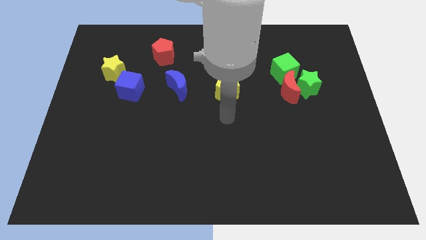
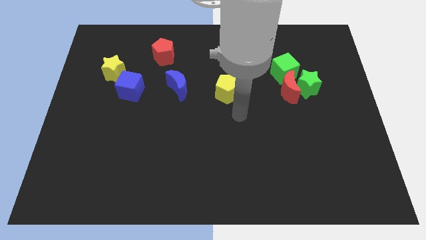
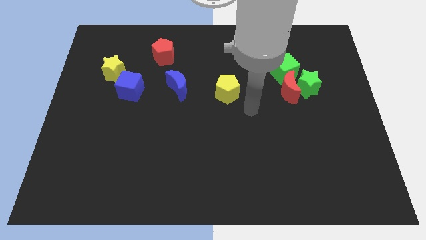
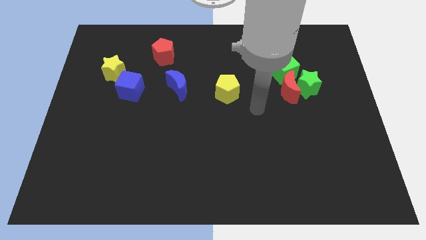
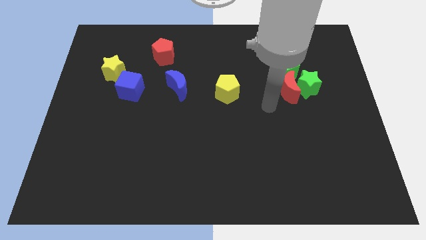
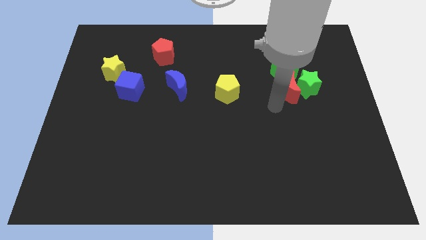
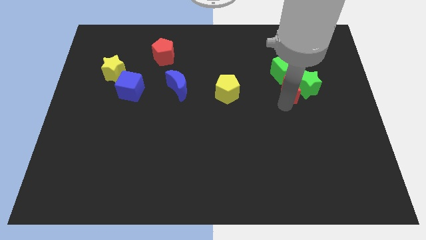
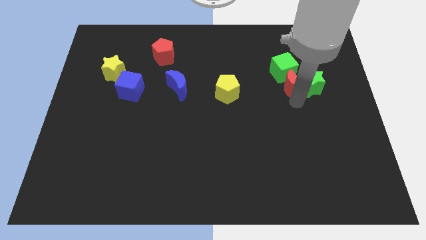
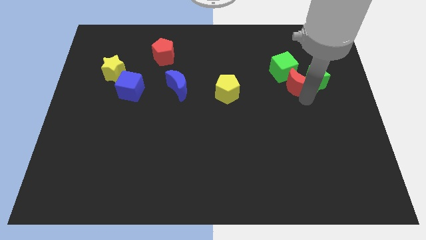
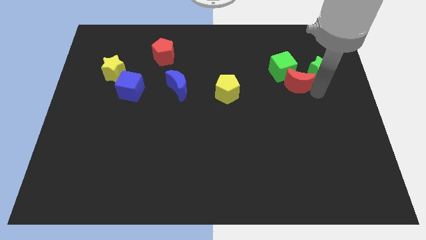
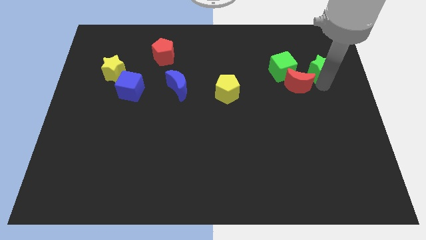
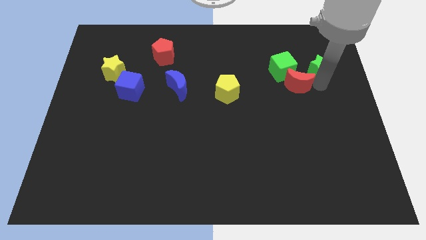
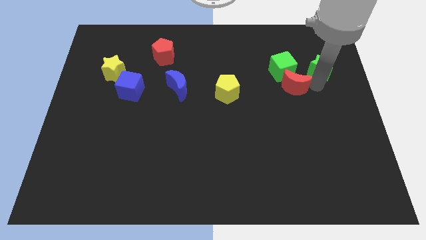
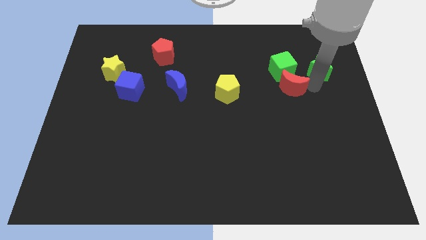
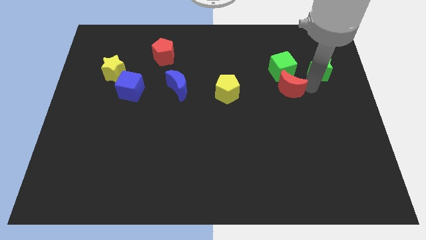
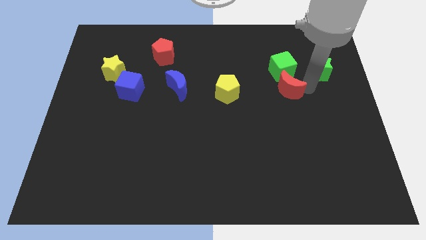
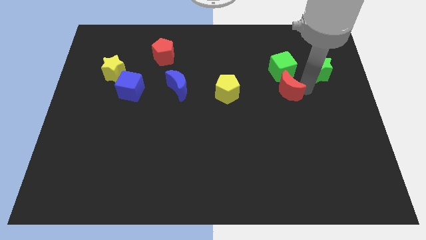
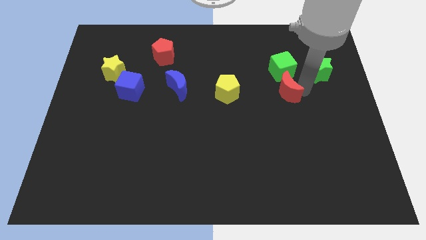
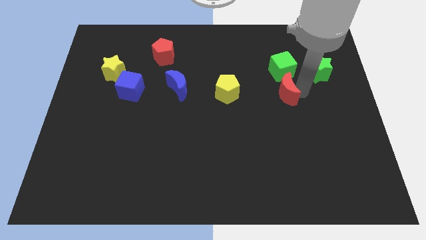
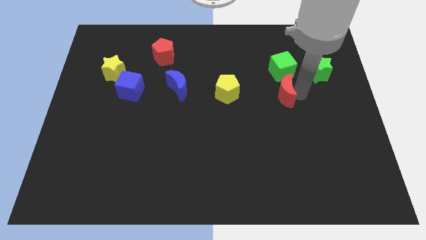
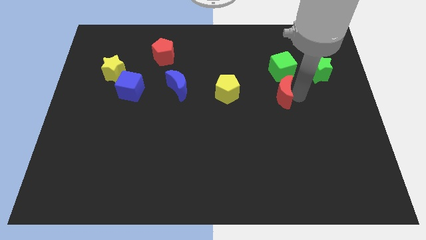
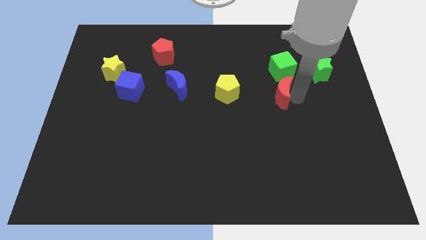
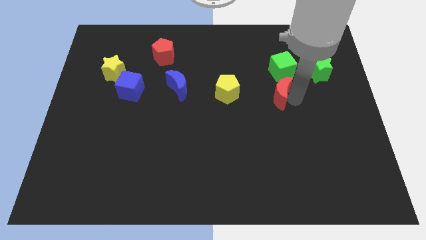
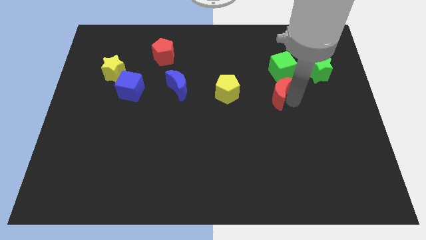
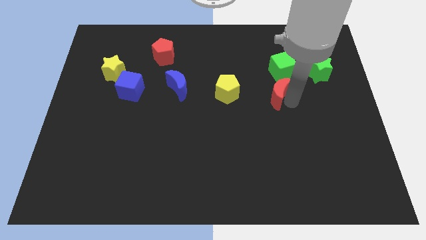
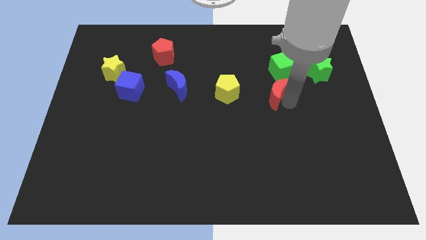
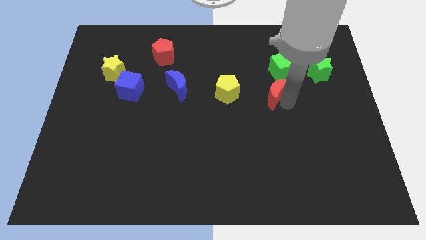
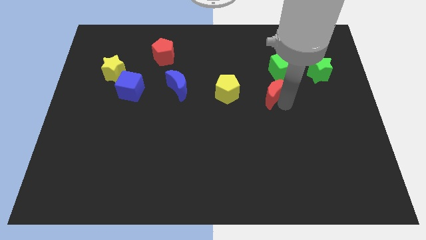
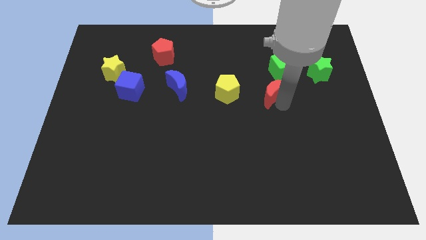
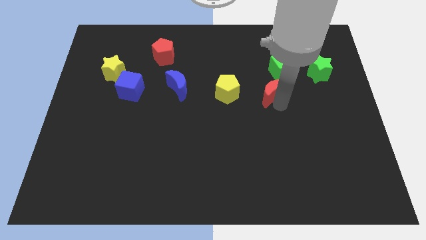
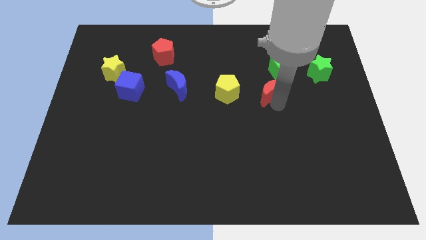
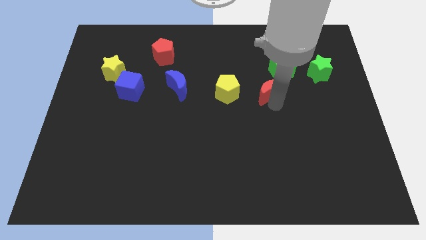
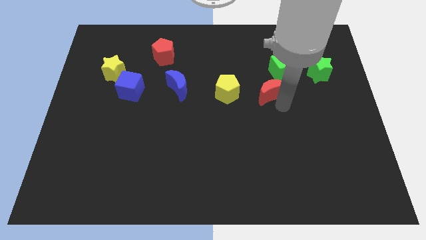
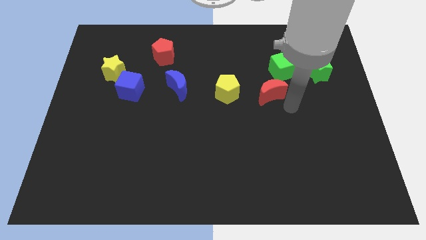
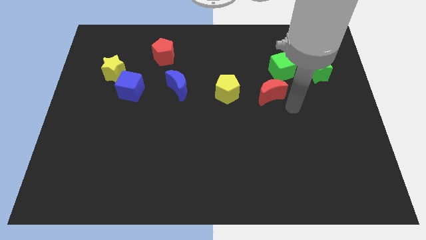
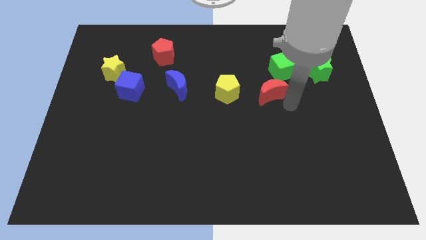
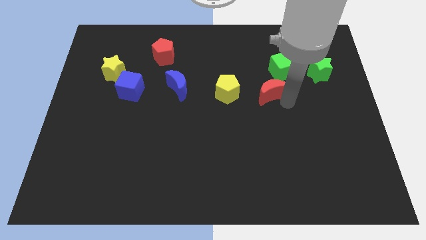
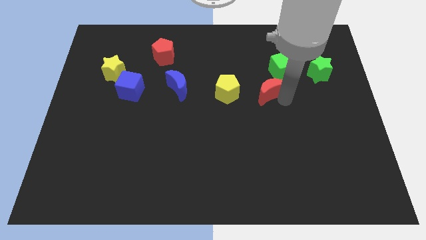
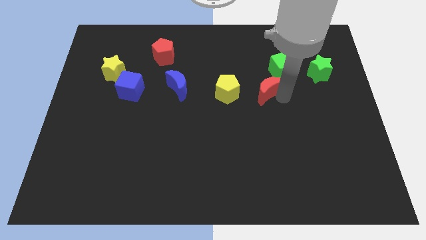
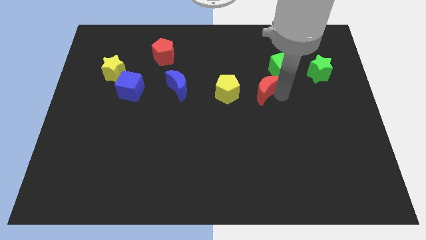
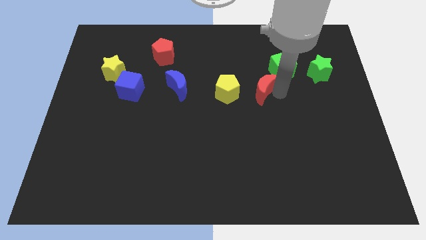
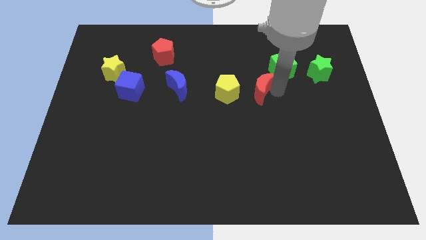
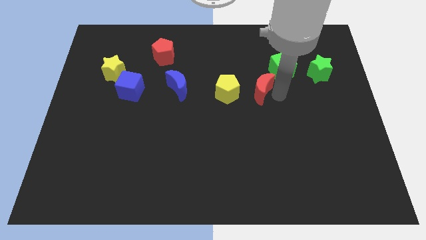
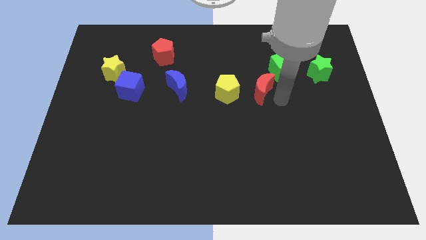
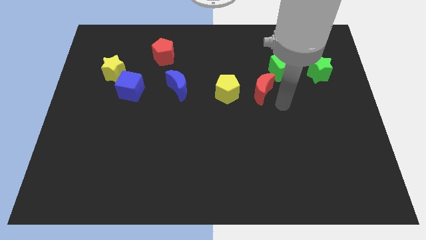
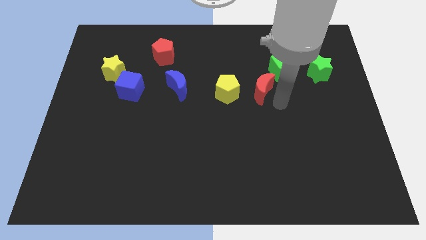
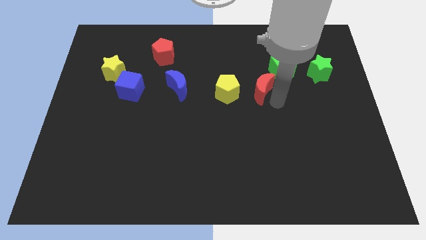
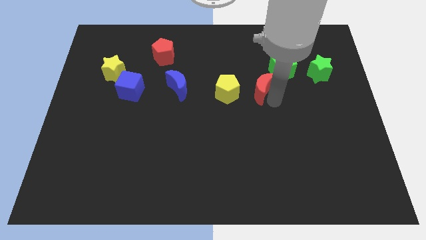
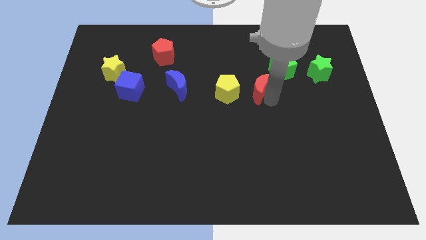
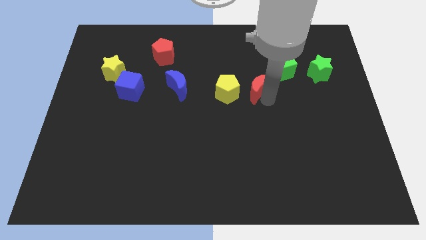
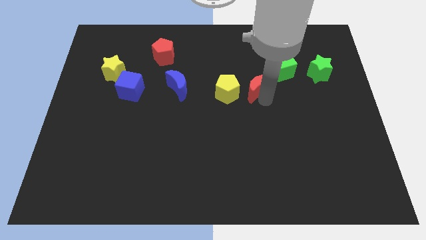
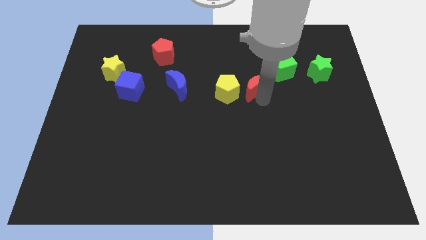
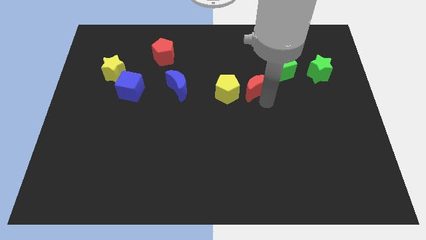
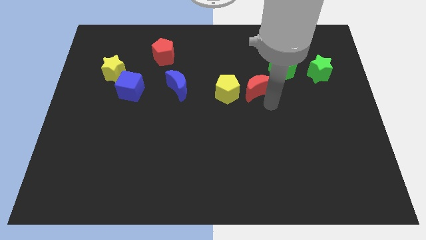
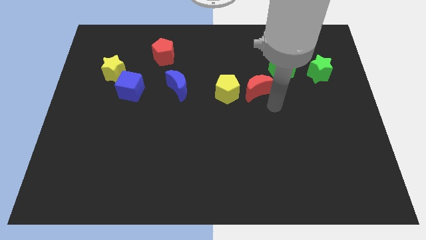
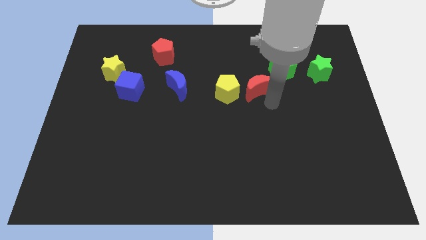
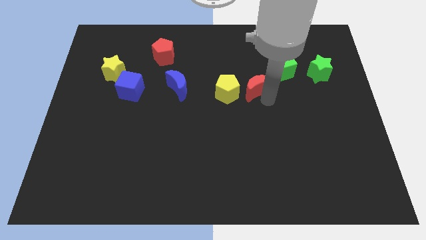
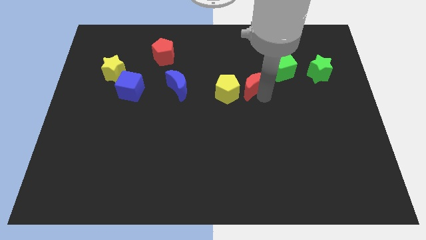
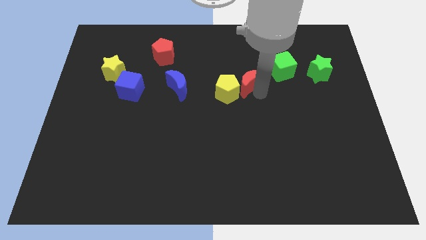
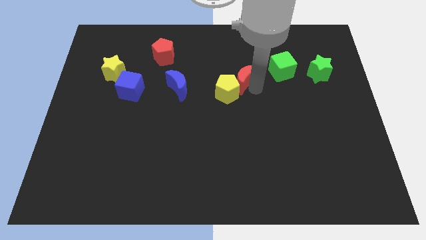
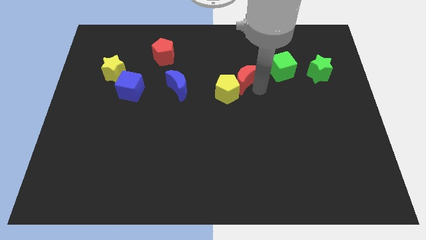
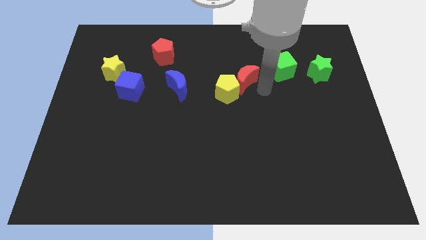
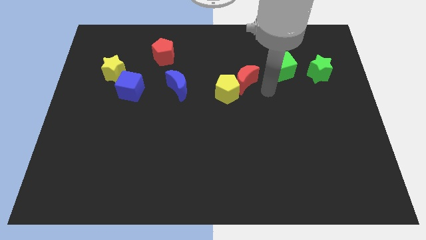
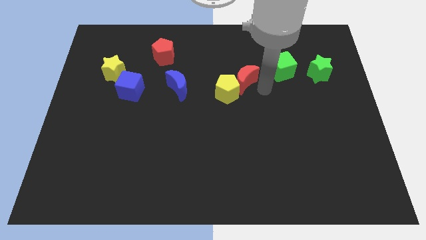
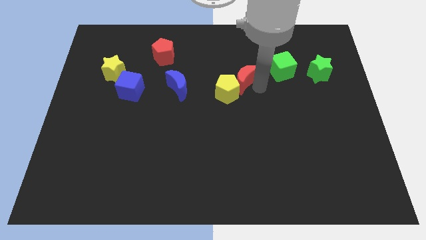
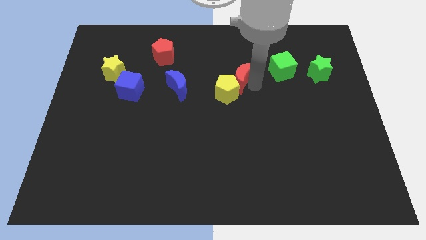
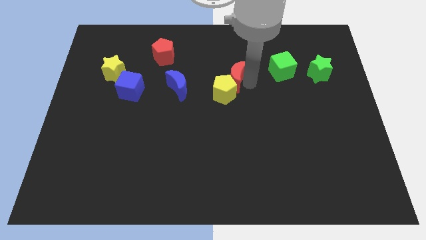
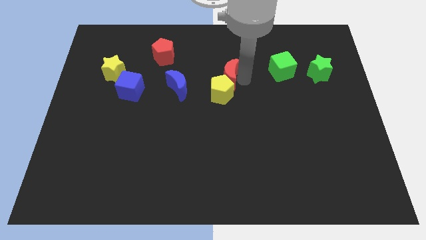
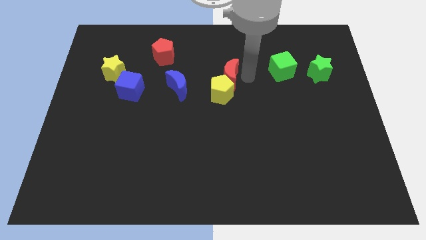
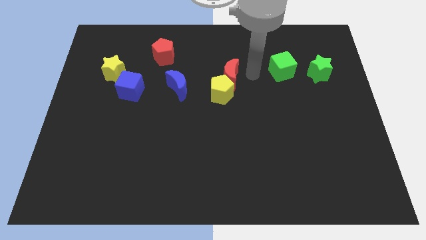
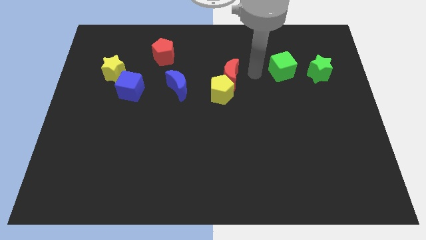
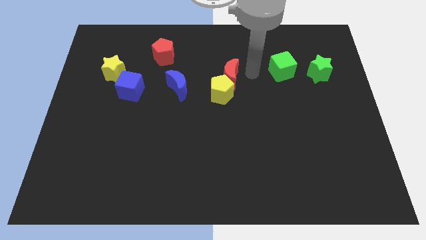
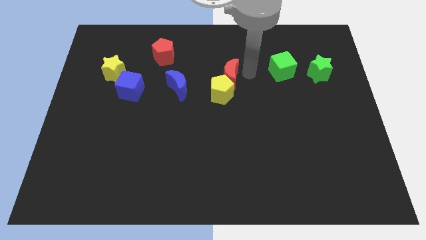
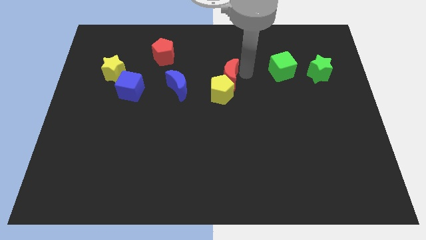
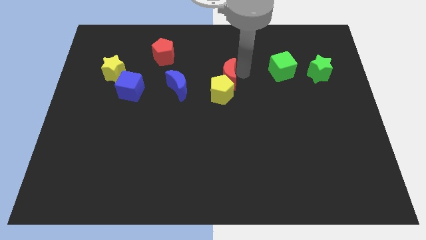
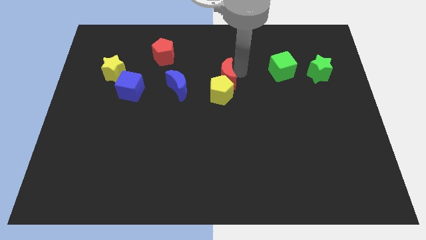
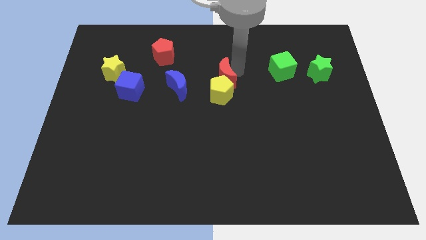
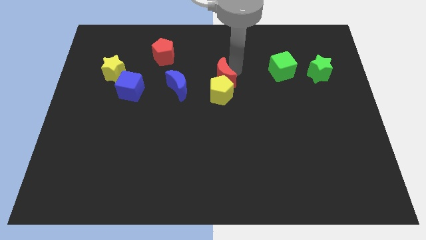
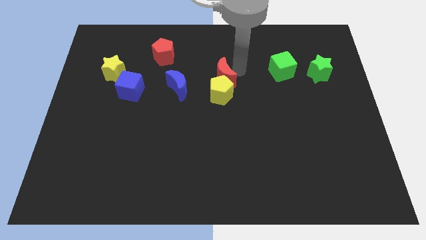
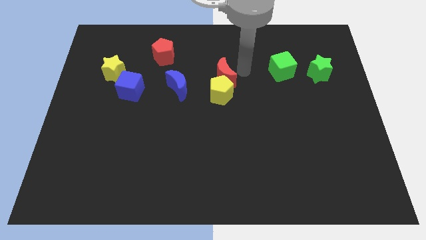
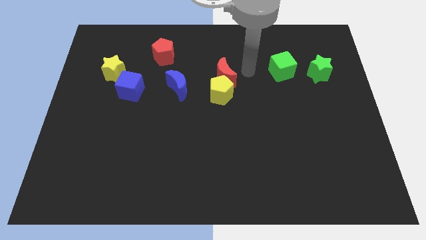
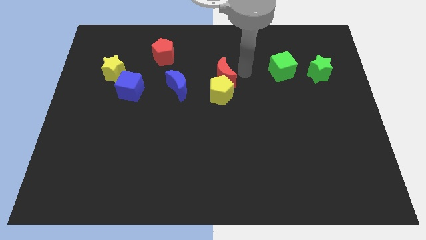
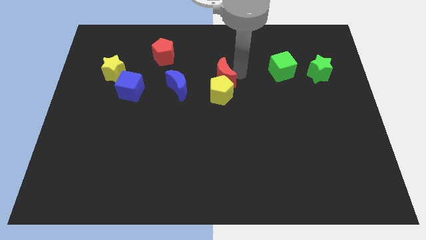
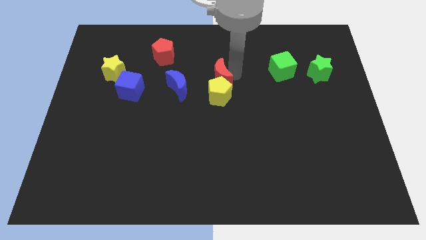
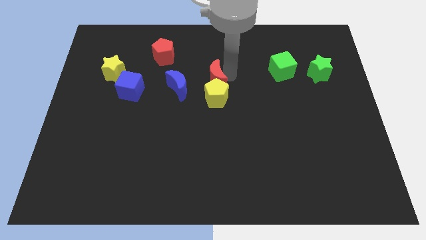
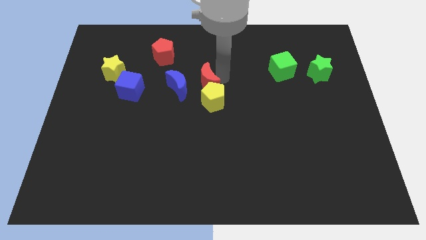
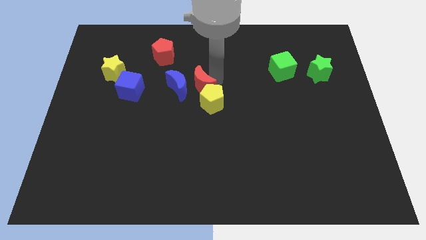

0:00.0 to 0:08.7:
move the red moon to the blue moon
